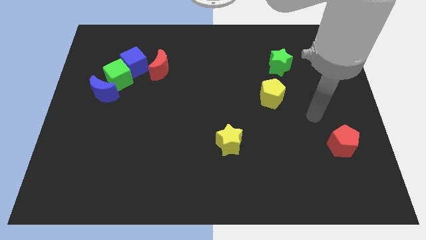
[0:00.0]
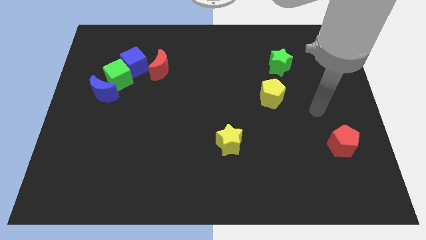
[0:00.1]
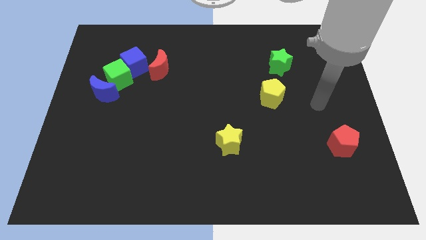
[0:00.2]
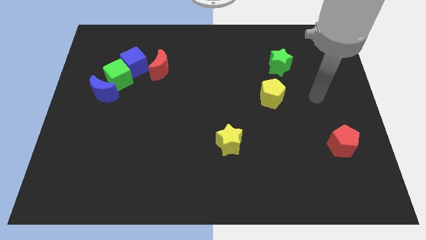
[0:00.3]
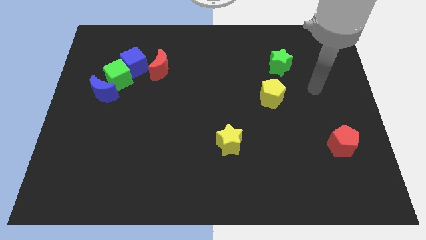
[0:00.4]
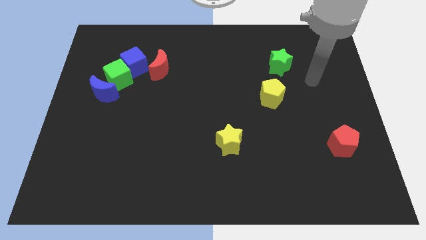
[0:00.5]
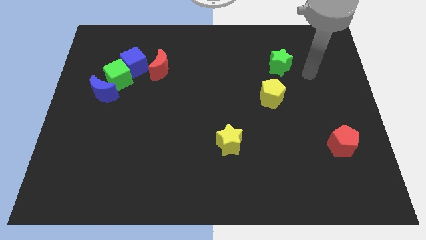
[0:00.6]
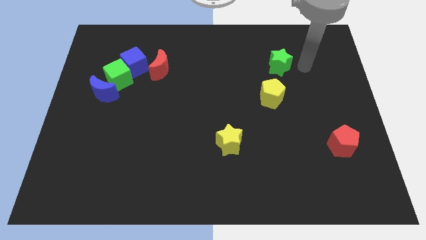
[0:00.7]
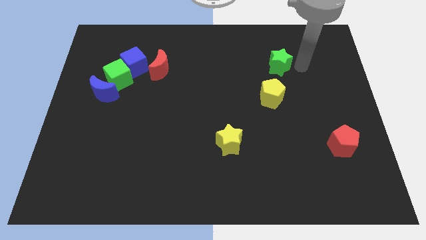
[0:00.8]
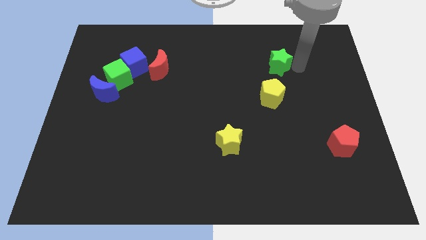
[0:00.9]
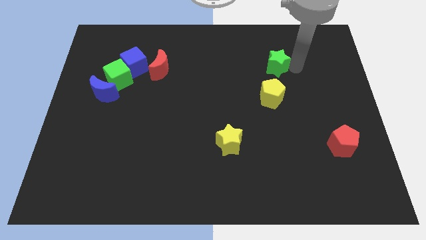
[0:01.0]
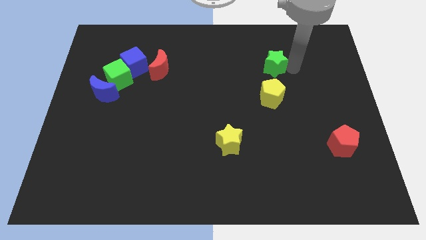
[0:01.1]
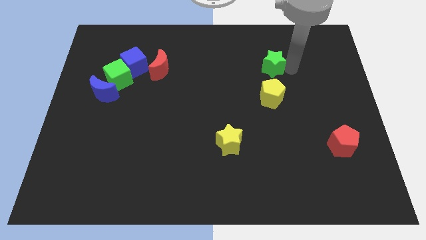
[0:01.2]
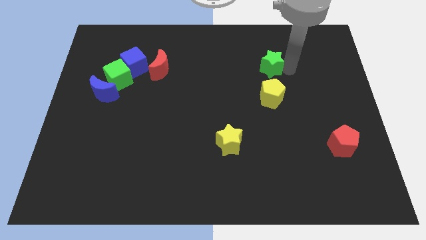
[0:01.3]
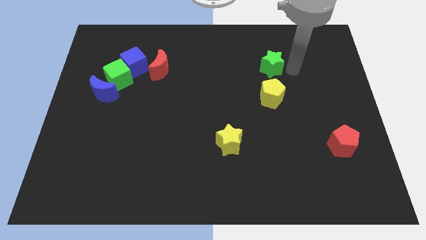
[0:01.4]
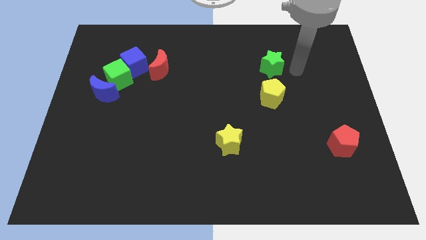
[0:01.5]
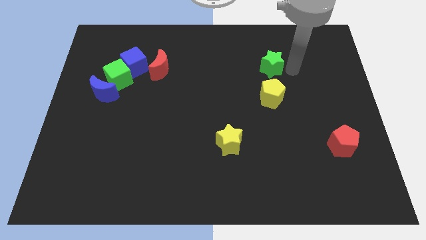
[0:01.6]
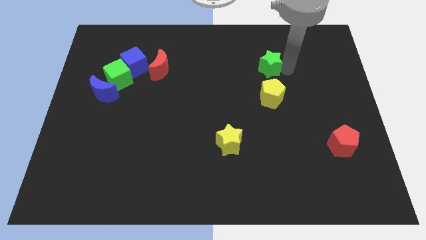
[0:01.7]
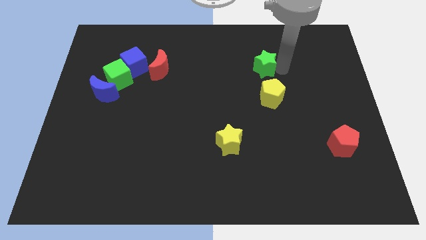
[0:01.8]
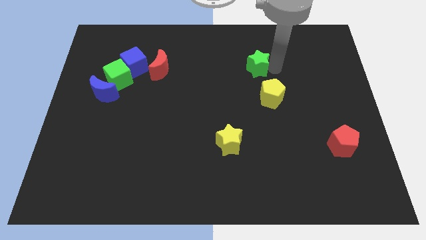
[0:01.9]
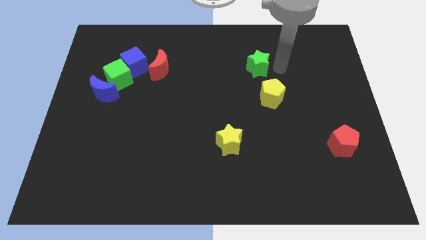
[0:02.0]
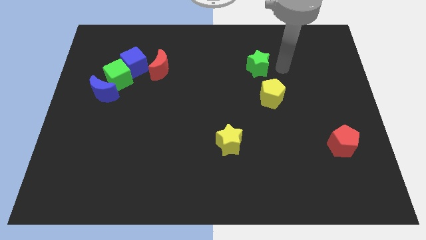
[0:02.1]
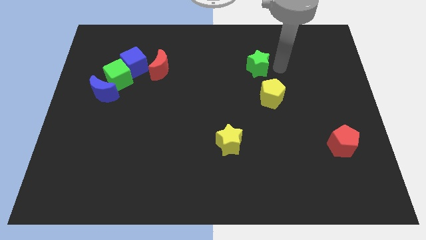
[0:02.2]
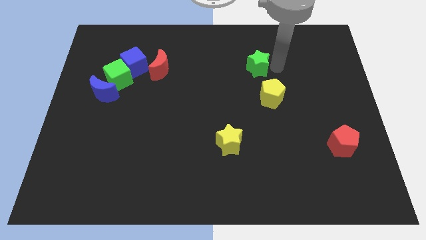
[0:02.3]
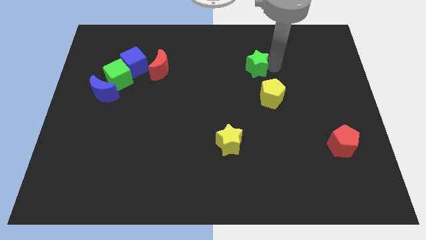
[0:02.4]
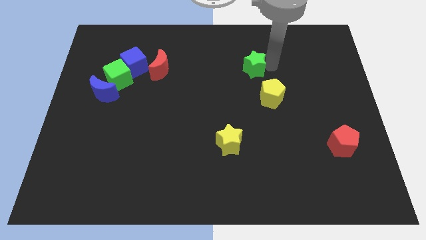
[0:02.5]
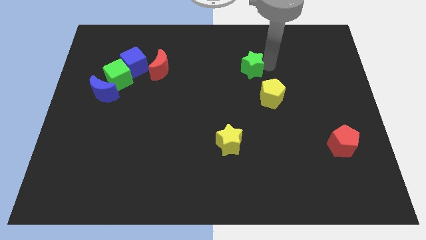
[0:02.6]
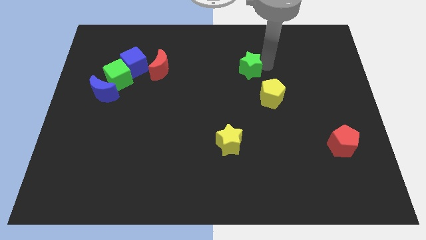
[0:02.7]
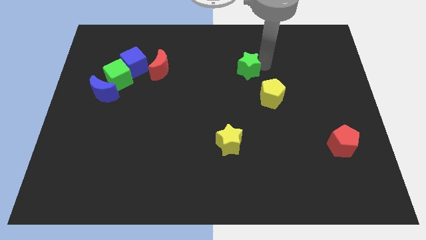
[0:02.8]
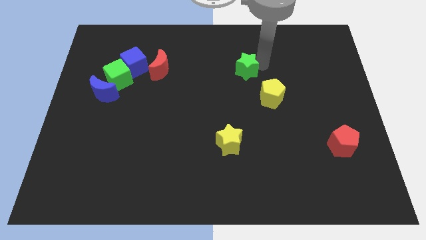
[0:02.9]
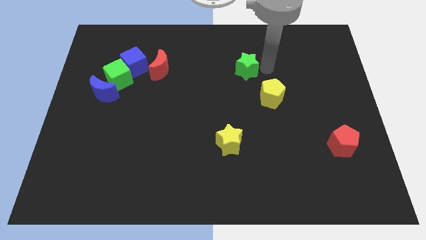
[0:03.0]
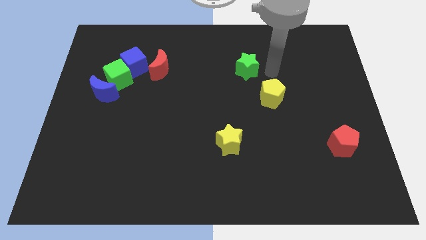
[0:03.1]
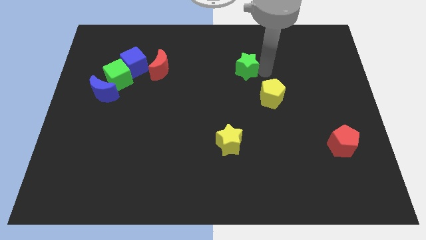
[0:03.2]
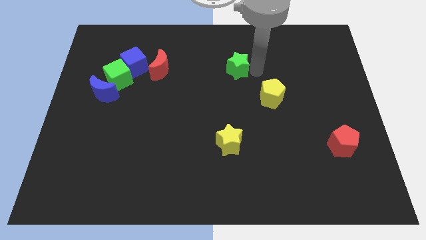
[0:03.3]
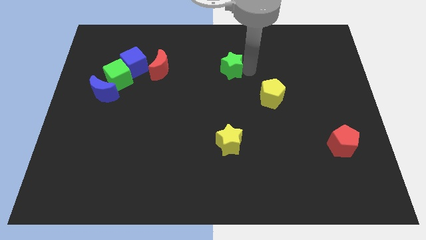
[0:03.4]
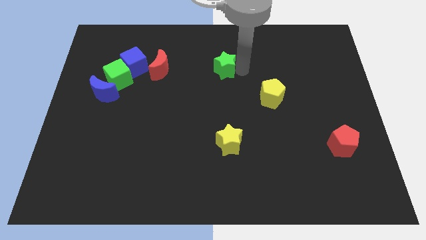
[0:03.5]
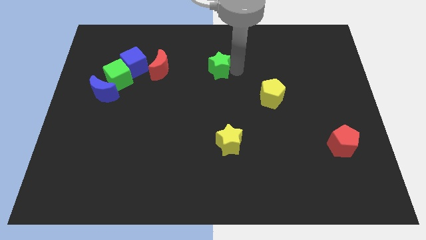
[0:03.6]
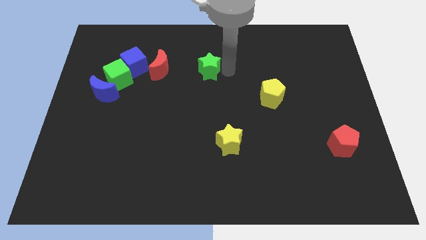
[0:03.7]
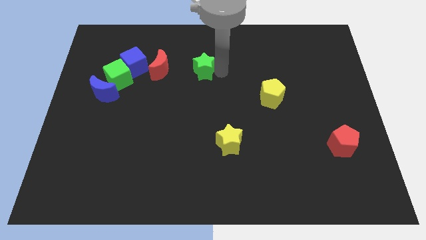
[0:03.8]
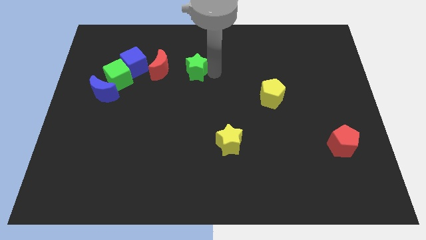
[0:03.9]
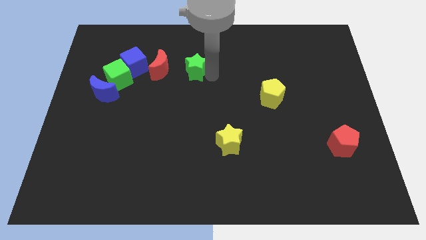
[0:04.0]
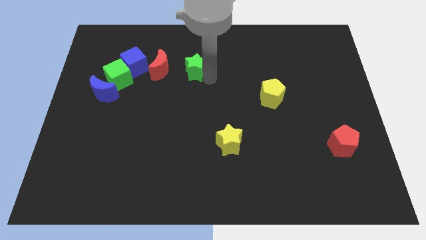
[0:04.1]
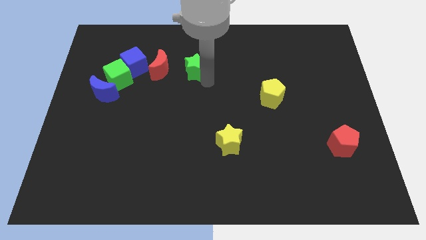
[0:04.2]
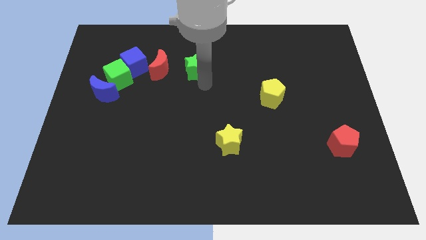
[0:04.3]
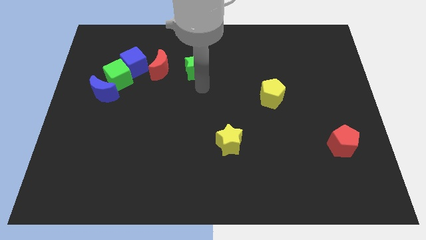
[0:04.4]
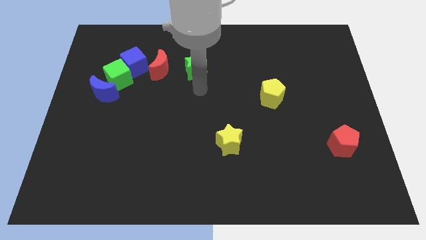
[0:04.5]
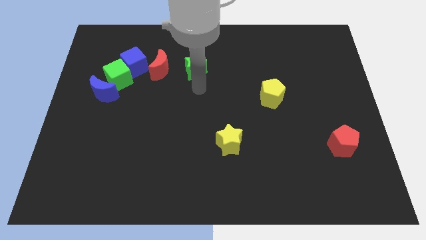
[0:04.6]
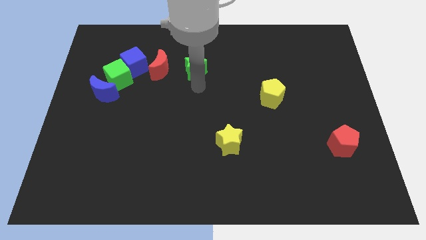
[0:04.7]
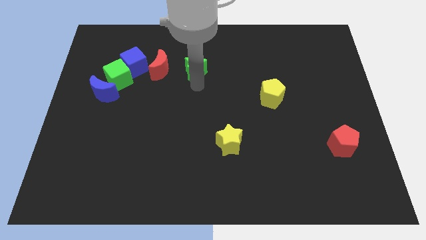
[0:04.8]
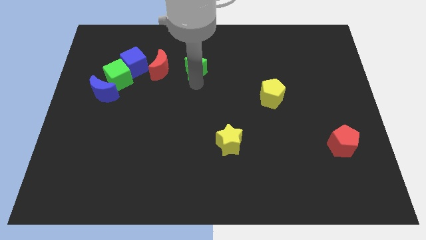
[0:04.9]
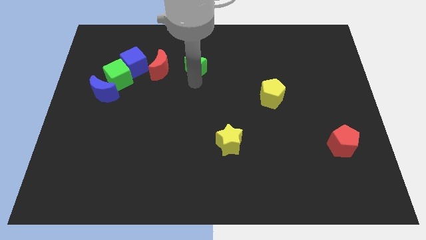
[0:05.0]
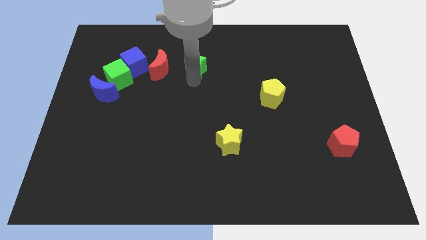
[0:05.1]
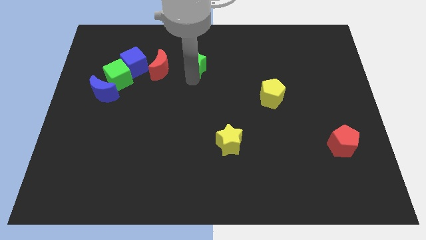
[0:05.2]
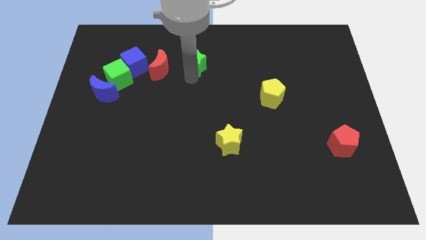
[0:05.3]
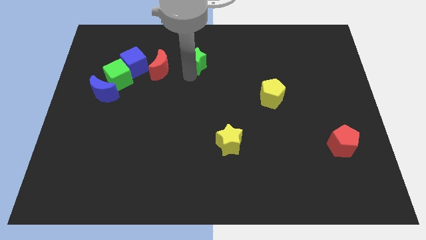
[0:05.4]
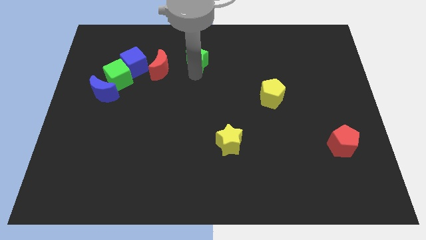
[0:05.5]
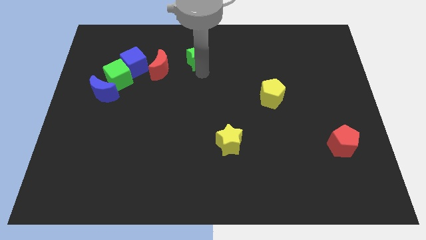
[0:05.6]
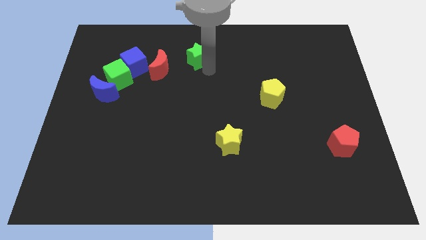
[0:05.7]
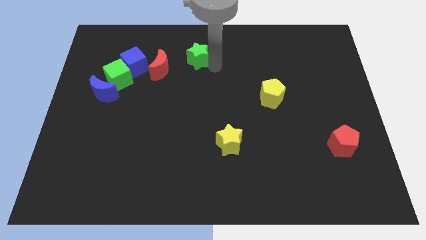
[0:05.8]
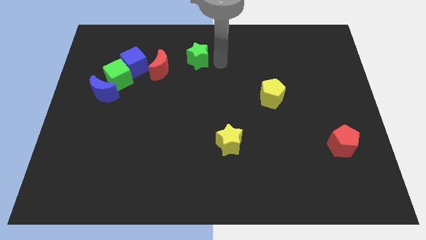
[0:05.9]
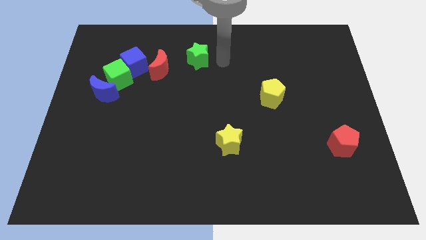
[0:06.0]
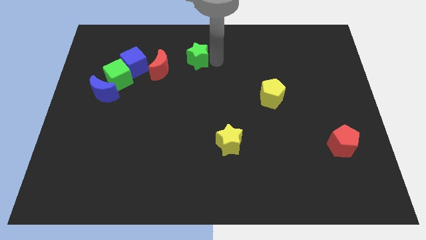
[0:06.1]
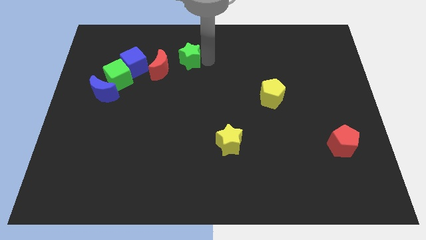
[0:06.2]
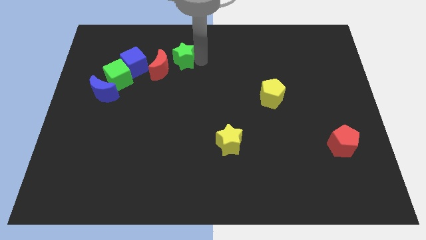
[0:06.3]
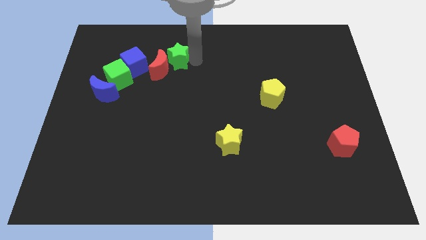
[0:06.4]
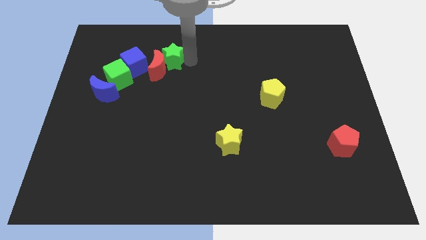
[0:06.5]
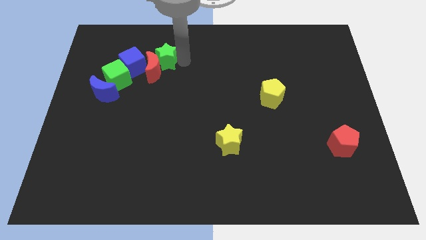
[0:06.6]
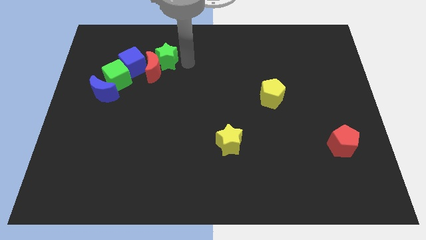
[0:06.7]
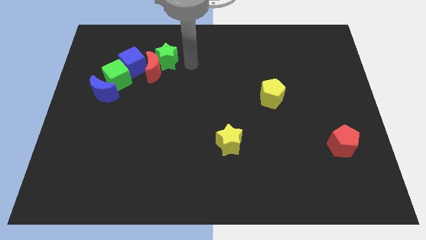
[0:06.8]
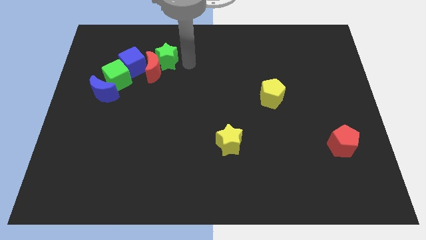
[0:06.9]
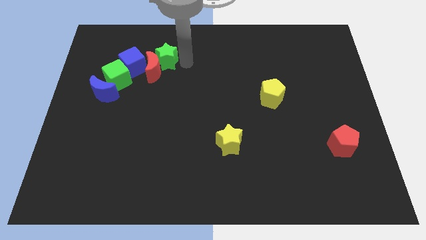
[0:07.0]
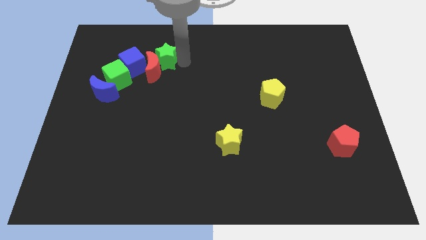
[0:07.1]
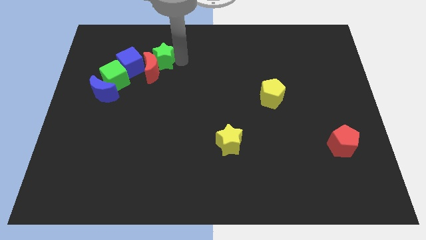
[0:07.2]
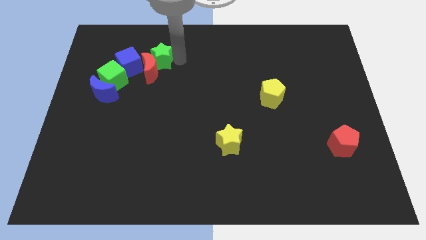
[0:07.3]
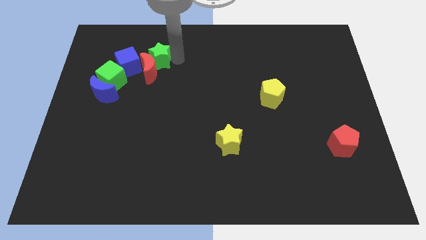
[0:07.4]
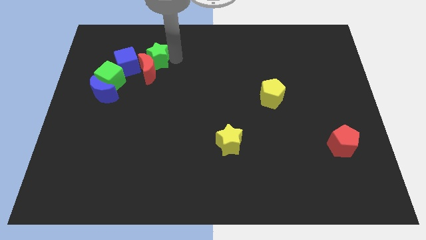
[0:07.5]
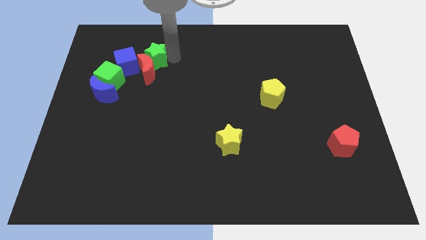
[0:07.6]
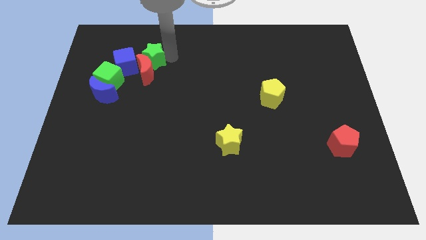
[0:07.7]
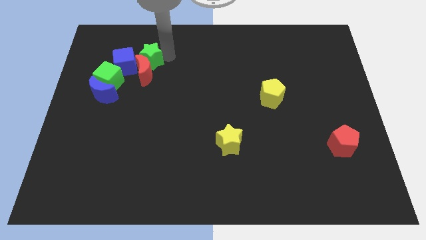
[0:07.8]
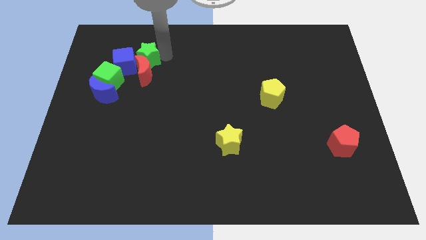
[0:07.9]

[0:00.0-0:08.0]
slide the green star towards the blue cube

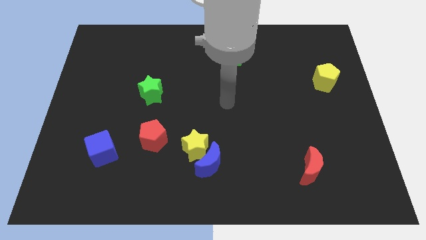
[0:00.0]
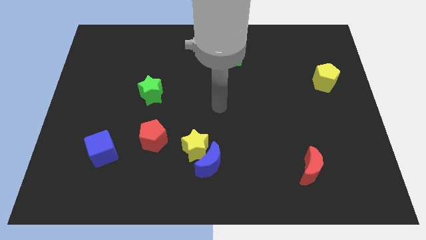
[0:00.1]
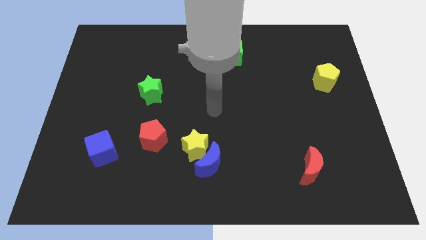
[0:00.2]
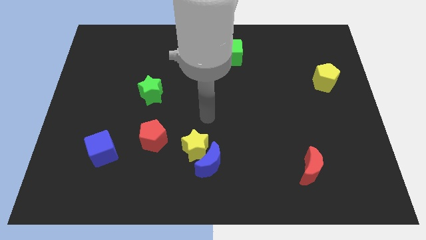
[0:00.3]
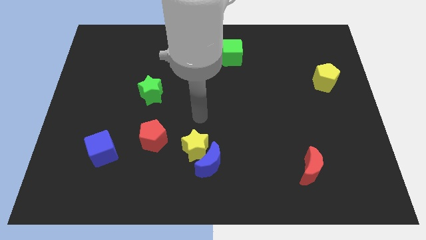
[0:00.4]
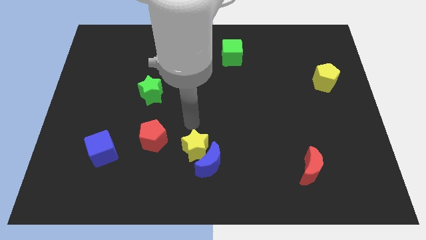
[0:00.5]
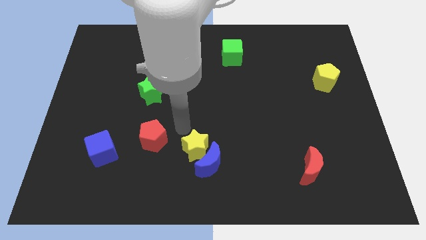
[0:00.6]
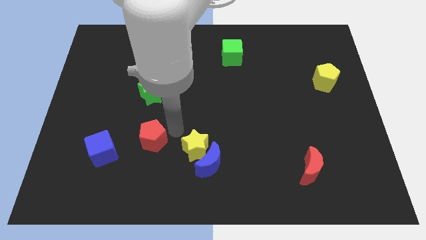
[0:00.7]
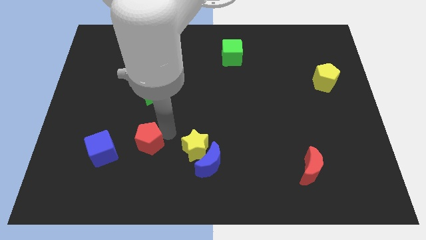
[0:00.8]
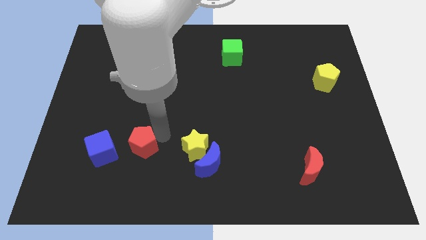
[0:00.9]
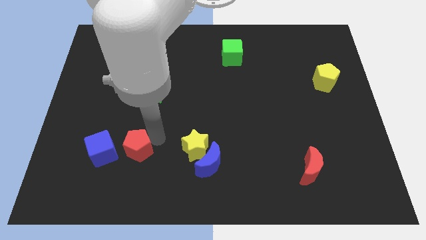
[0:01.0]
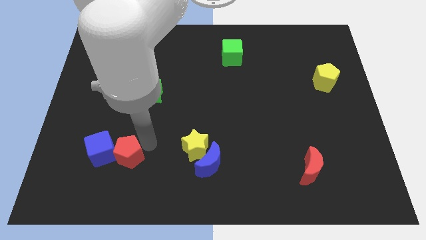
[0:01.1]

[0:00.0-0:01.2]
move the red pentagon close to the blue cube
